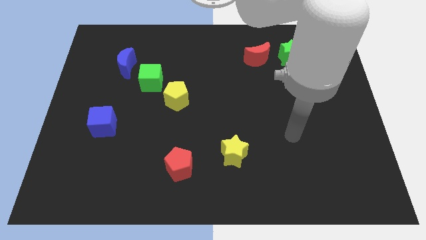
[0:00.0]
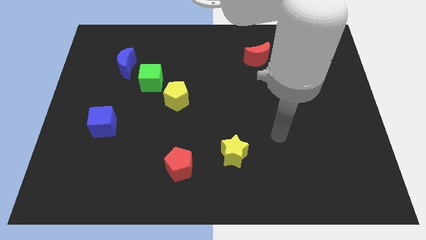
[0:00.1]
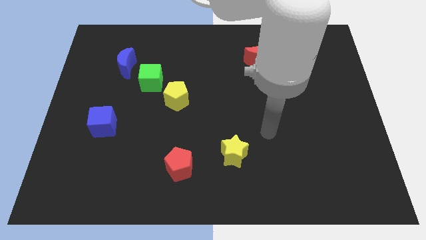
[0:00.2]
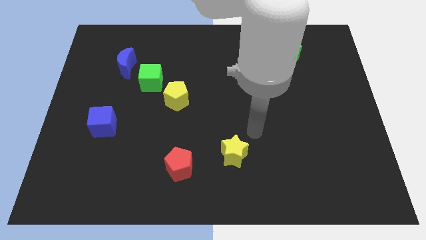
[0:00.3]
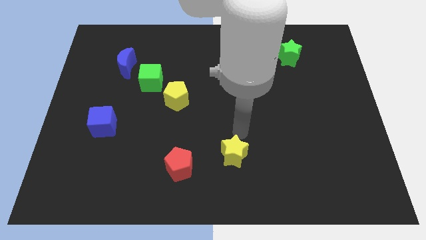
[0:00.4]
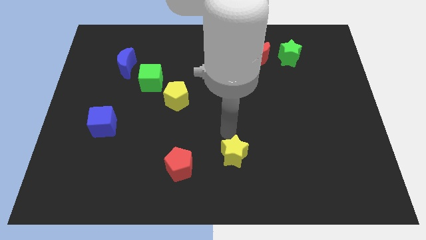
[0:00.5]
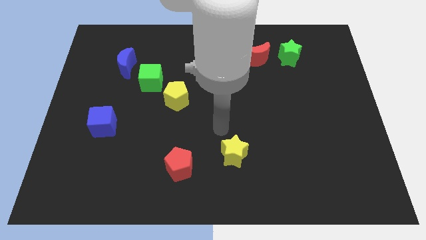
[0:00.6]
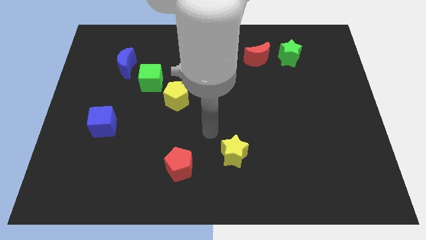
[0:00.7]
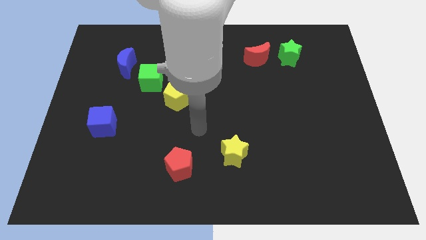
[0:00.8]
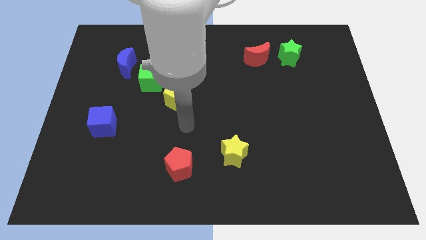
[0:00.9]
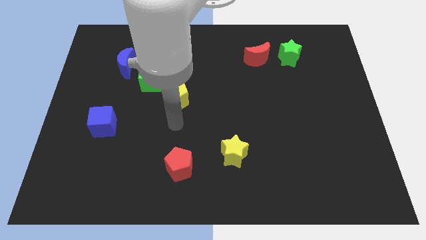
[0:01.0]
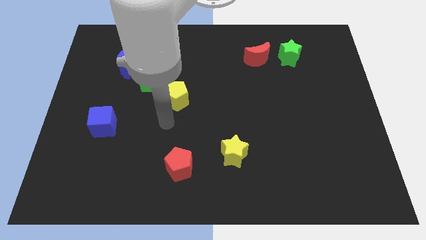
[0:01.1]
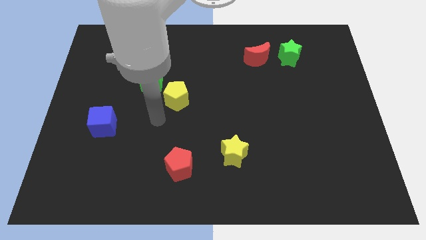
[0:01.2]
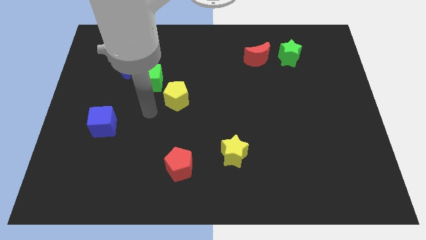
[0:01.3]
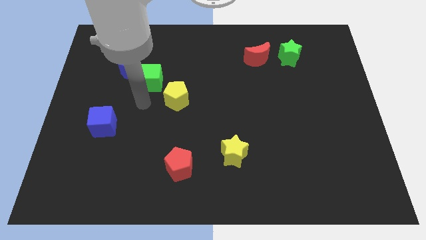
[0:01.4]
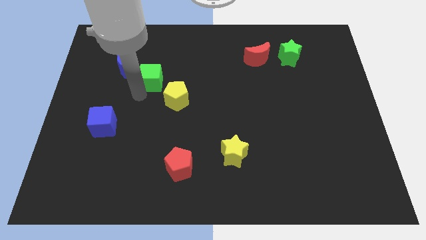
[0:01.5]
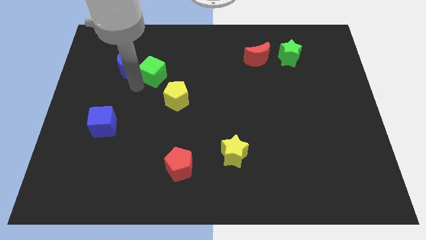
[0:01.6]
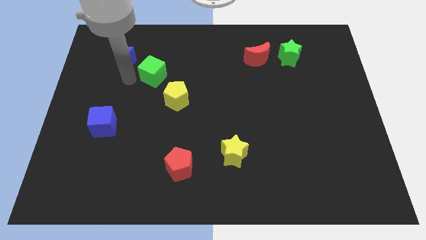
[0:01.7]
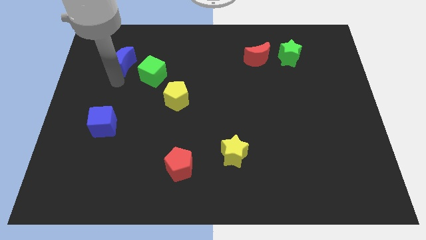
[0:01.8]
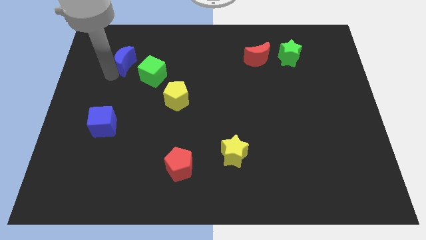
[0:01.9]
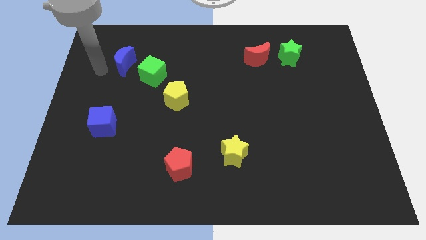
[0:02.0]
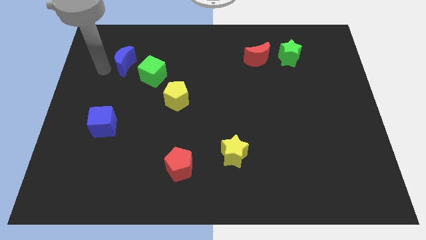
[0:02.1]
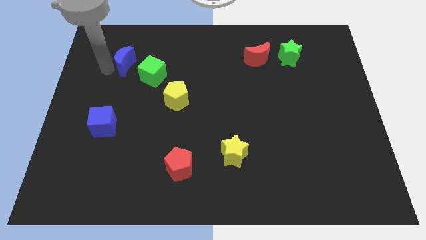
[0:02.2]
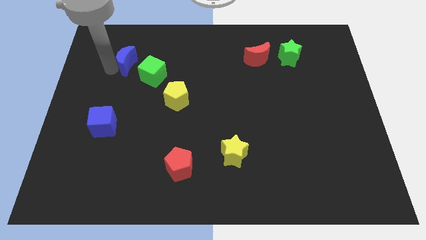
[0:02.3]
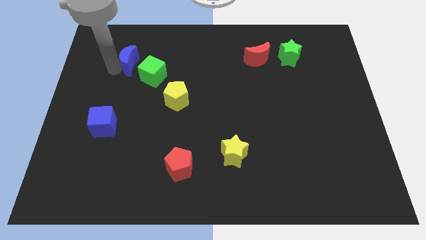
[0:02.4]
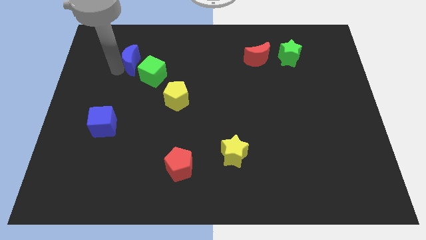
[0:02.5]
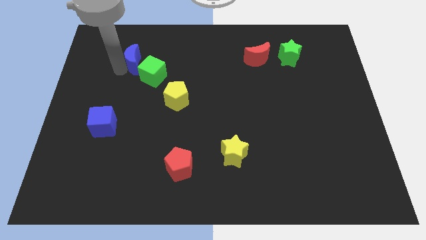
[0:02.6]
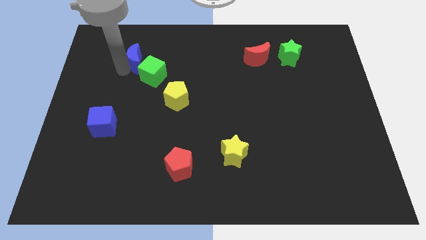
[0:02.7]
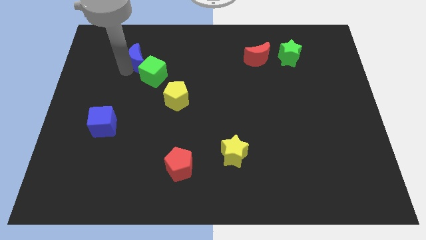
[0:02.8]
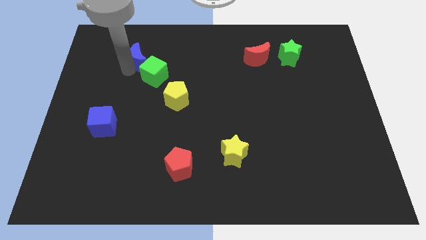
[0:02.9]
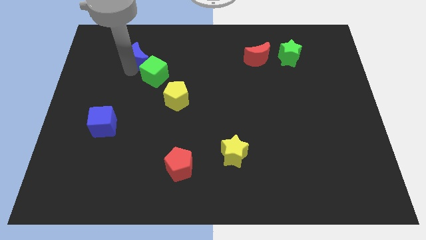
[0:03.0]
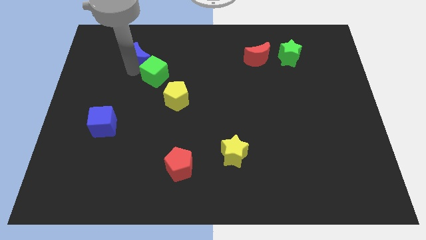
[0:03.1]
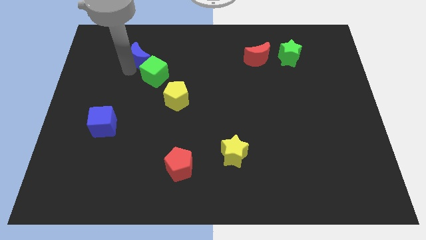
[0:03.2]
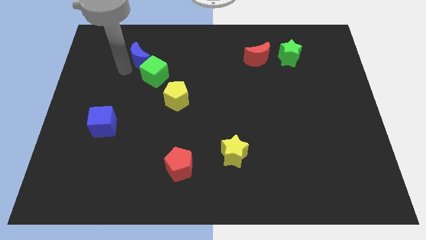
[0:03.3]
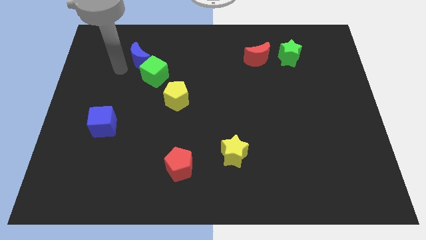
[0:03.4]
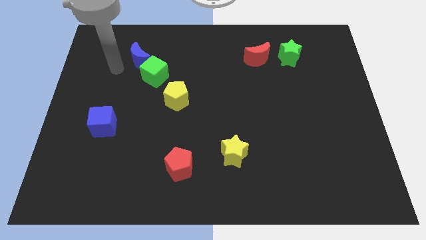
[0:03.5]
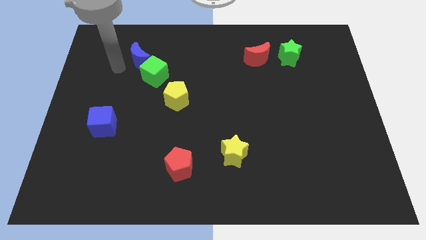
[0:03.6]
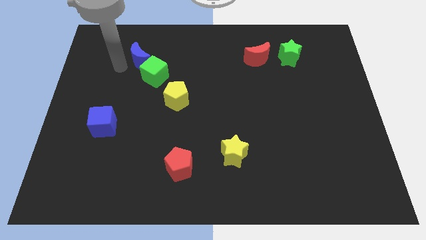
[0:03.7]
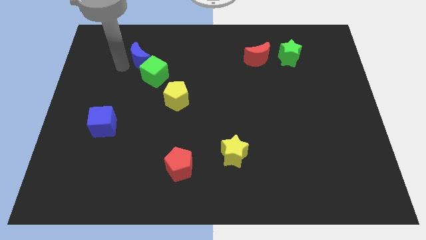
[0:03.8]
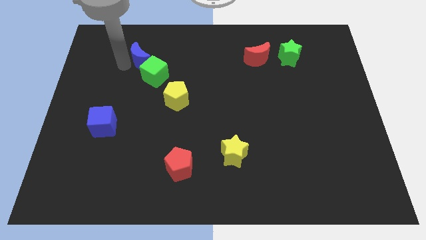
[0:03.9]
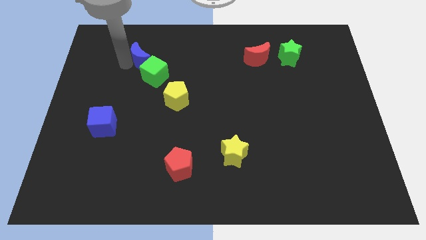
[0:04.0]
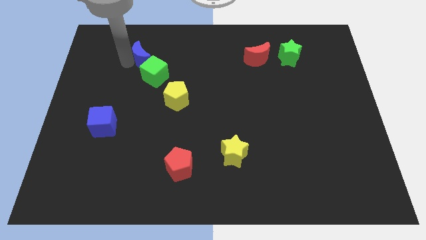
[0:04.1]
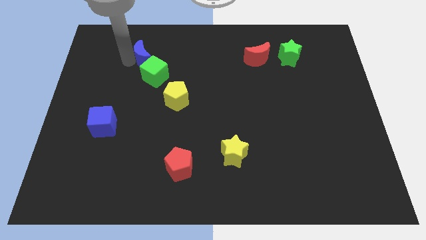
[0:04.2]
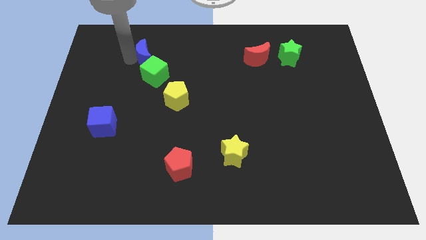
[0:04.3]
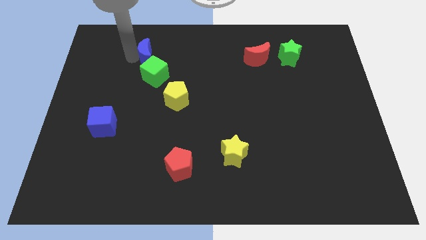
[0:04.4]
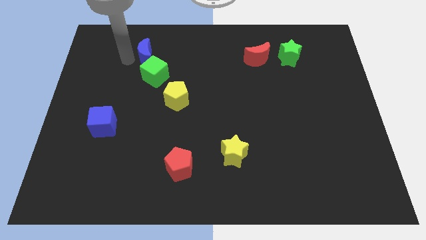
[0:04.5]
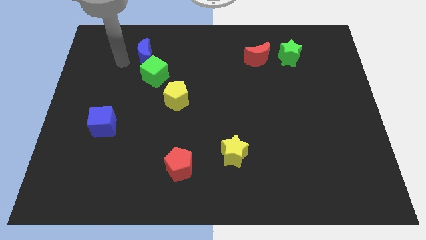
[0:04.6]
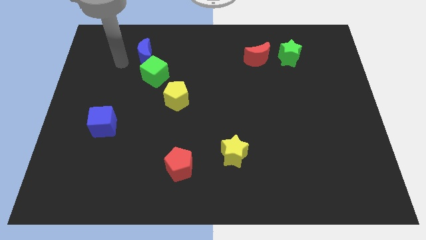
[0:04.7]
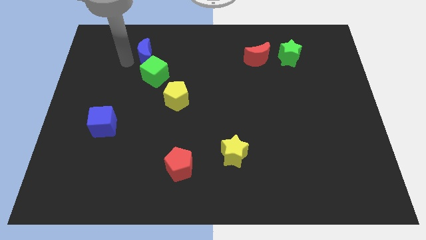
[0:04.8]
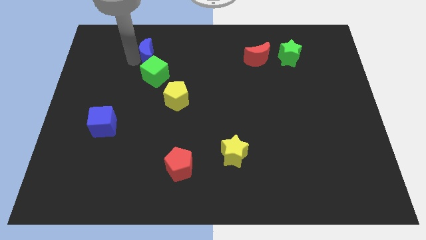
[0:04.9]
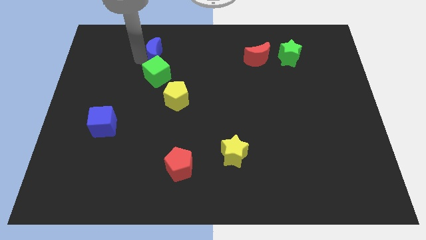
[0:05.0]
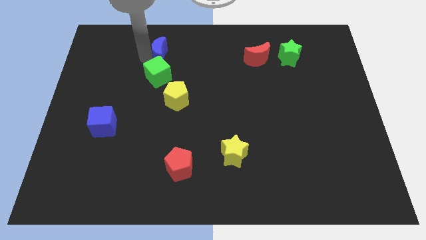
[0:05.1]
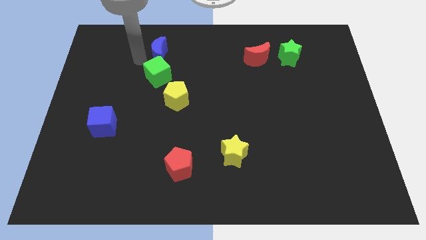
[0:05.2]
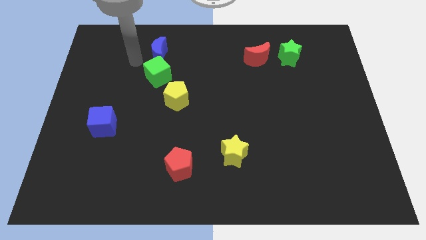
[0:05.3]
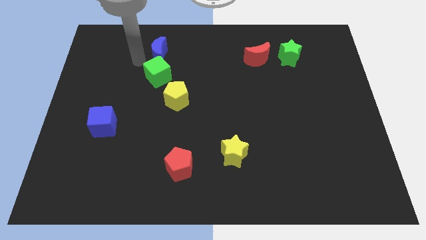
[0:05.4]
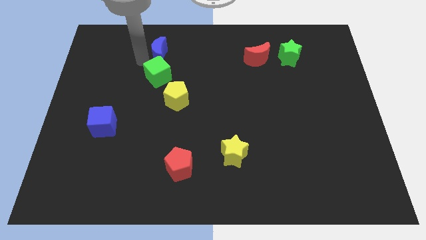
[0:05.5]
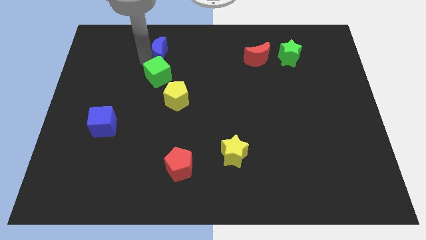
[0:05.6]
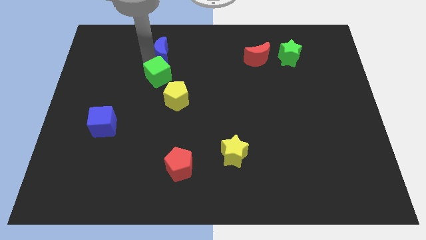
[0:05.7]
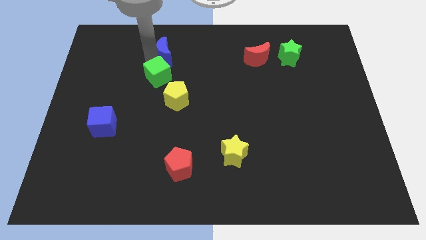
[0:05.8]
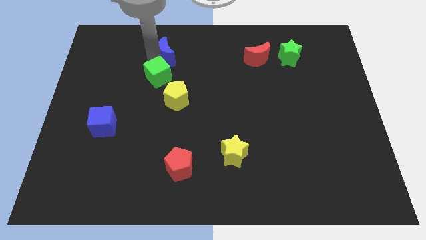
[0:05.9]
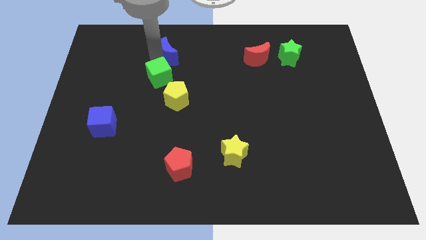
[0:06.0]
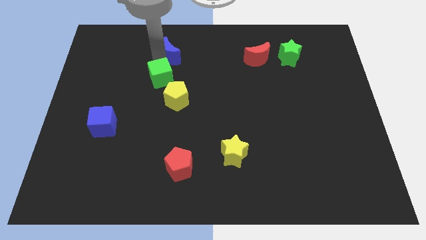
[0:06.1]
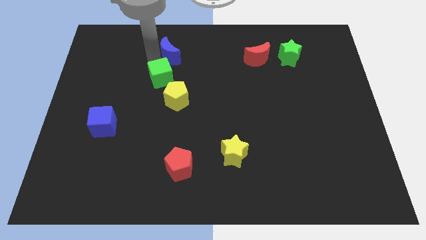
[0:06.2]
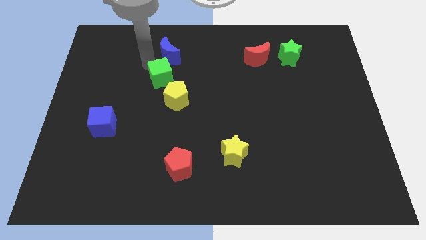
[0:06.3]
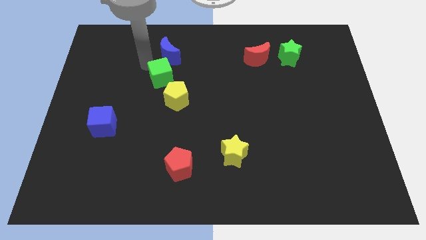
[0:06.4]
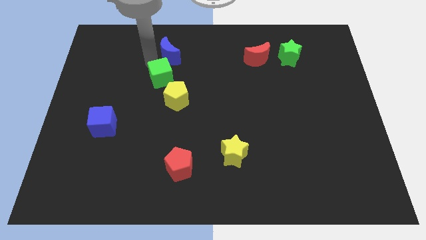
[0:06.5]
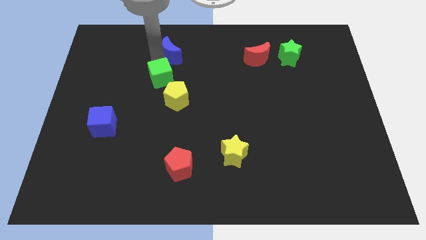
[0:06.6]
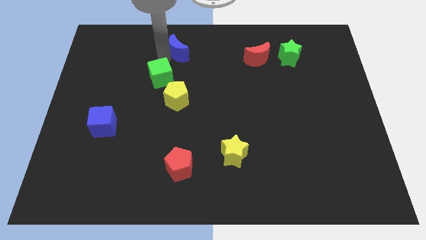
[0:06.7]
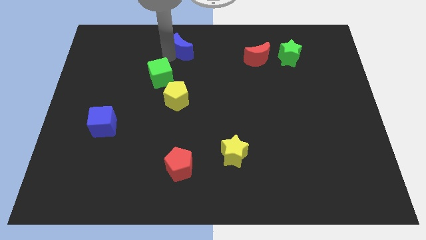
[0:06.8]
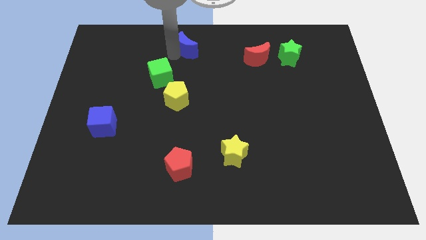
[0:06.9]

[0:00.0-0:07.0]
put the blue moon to the top
